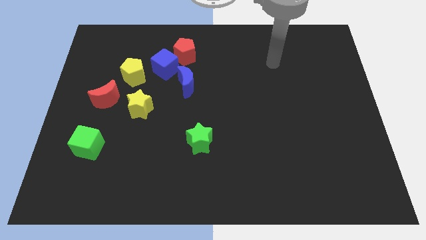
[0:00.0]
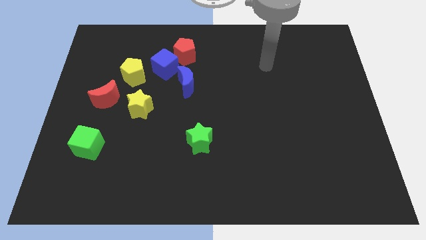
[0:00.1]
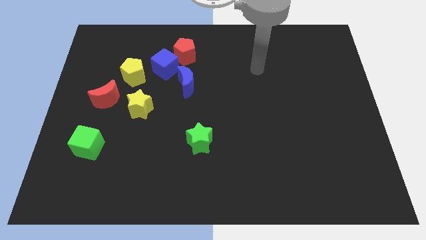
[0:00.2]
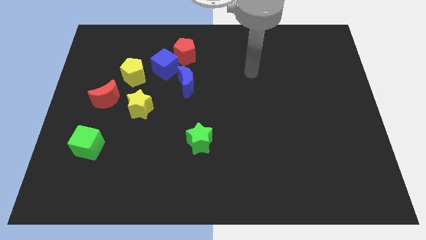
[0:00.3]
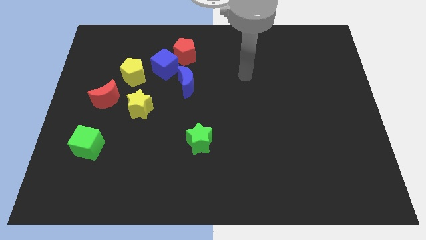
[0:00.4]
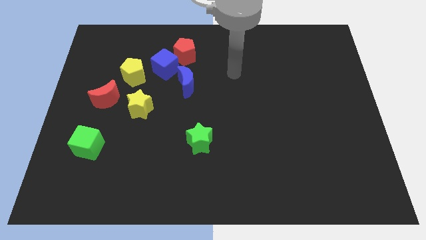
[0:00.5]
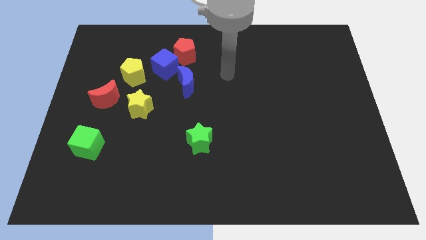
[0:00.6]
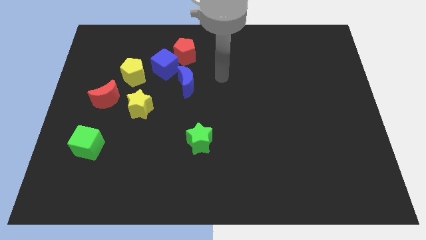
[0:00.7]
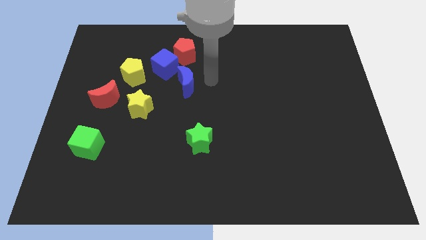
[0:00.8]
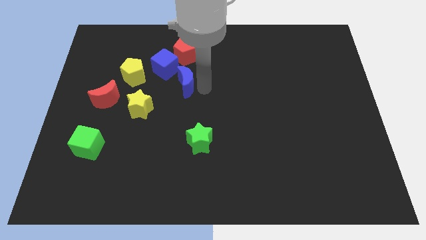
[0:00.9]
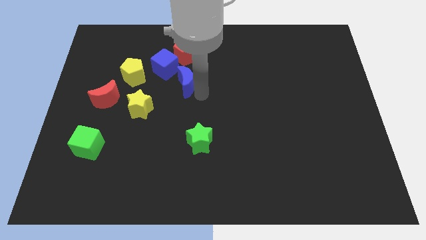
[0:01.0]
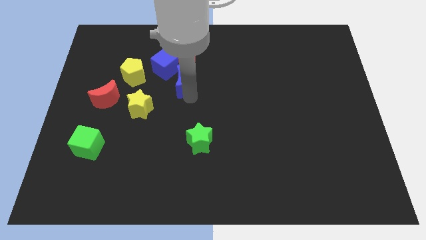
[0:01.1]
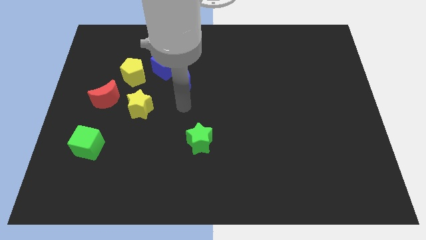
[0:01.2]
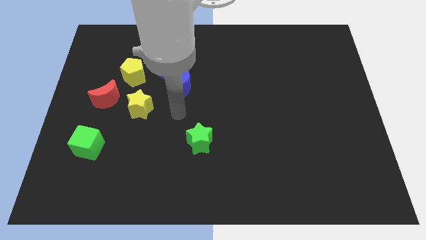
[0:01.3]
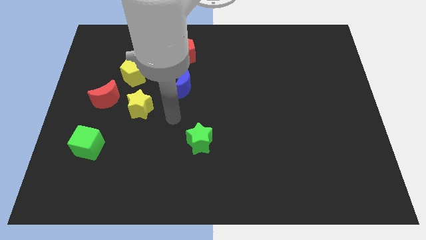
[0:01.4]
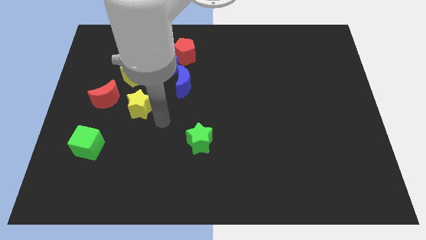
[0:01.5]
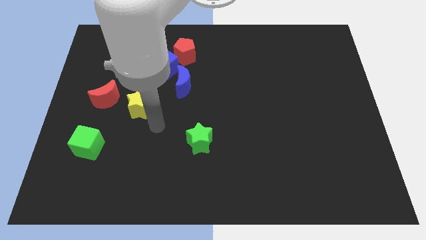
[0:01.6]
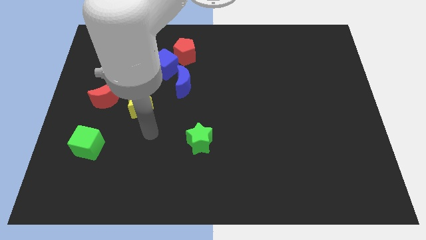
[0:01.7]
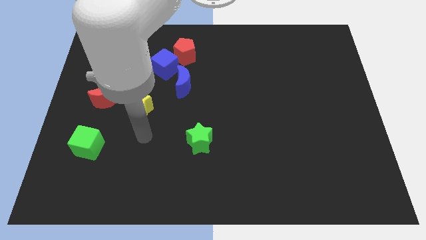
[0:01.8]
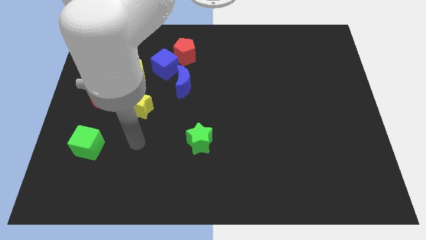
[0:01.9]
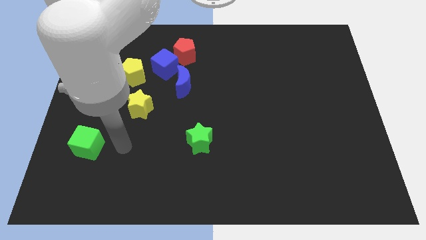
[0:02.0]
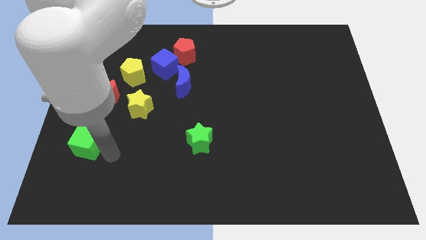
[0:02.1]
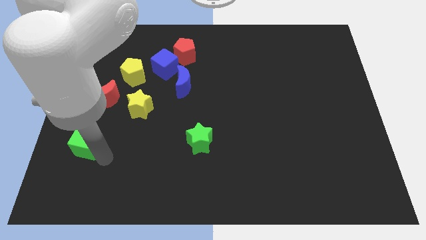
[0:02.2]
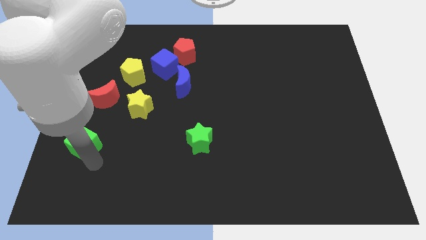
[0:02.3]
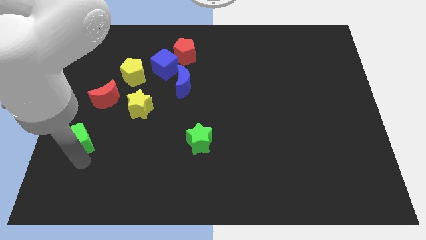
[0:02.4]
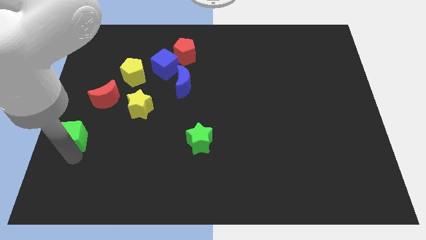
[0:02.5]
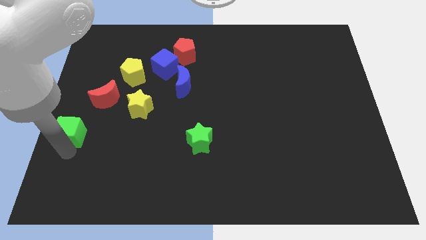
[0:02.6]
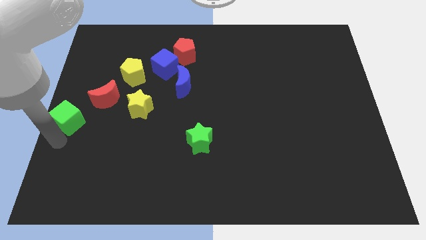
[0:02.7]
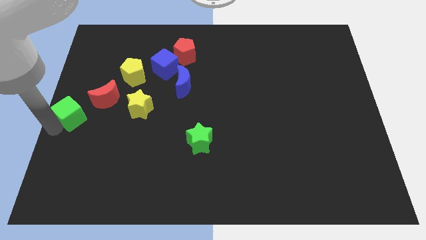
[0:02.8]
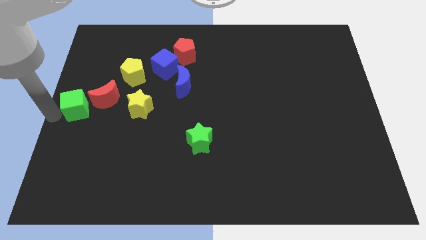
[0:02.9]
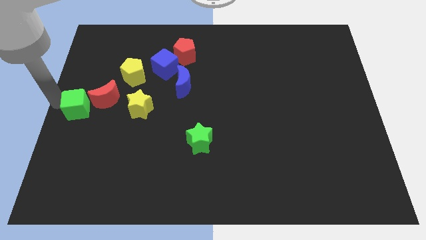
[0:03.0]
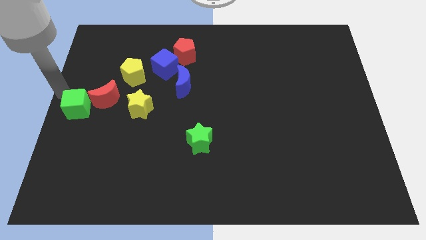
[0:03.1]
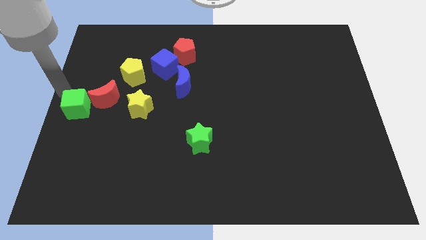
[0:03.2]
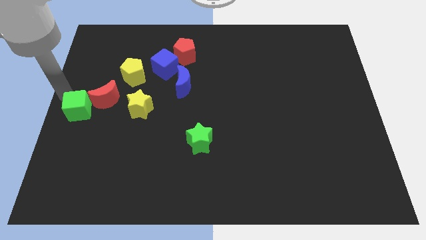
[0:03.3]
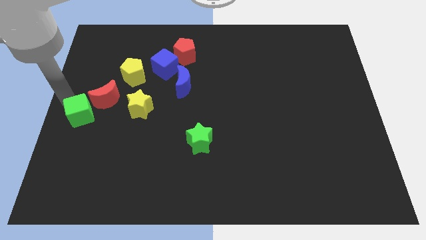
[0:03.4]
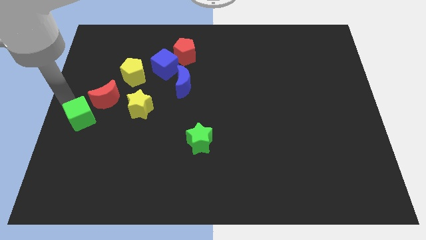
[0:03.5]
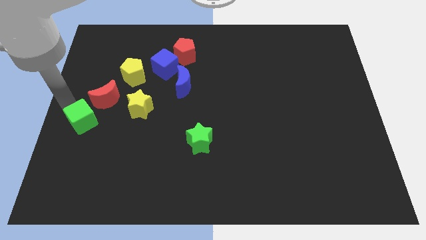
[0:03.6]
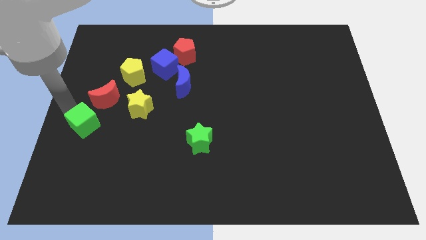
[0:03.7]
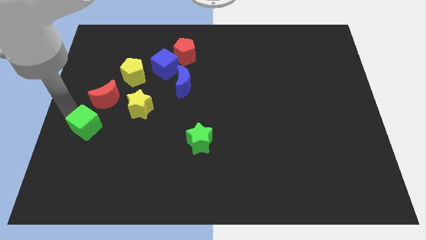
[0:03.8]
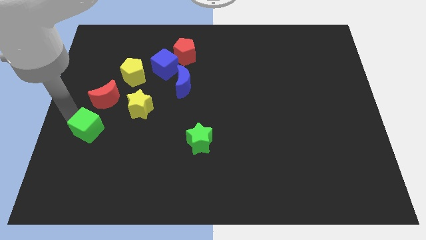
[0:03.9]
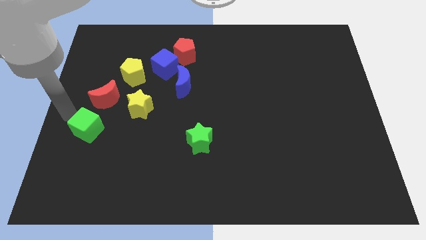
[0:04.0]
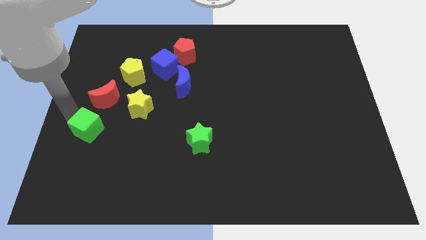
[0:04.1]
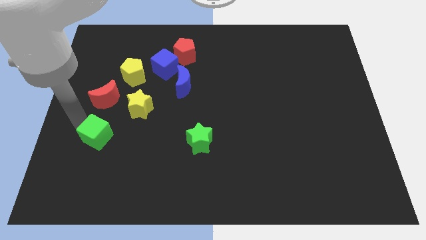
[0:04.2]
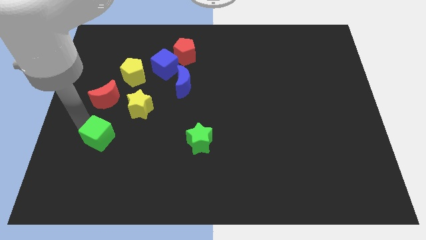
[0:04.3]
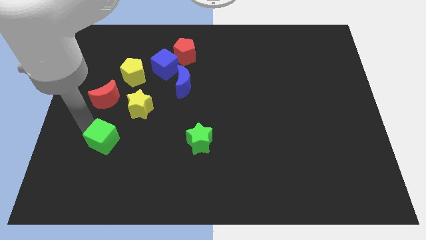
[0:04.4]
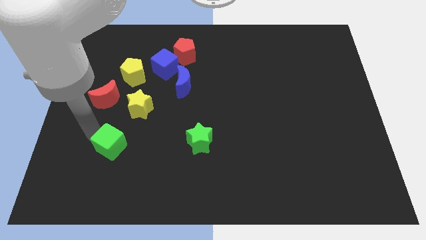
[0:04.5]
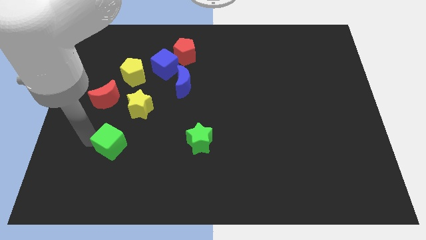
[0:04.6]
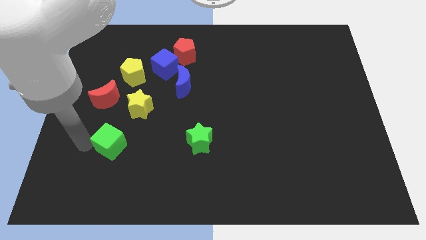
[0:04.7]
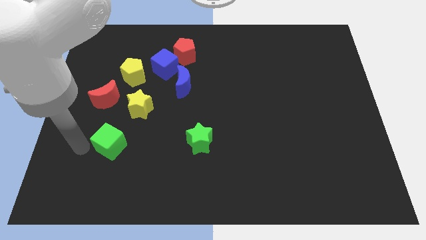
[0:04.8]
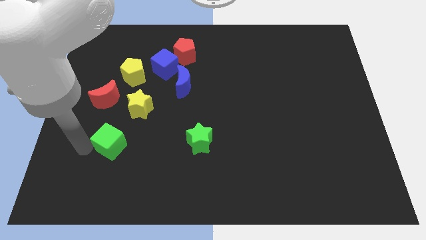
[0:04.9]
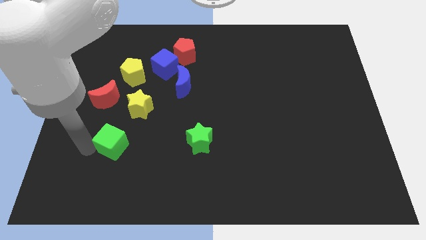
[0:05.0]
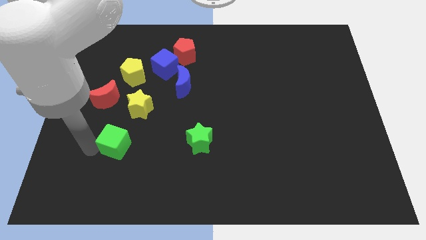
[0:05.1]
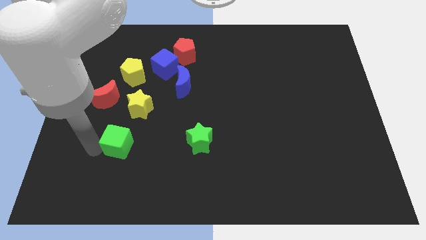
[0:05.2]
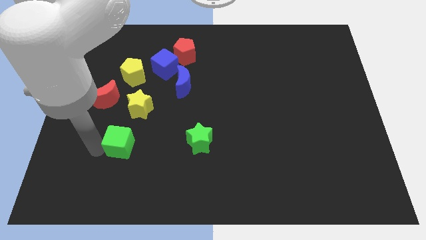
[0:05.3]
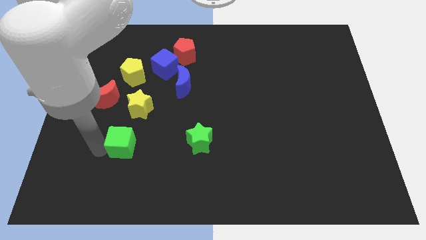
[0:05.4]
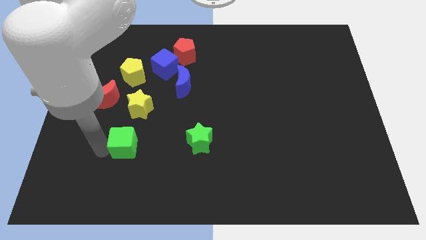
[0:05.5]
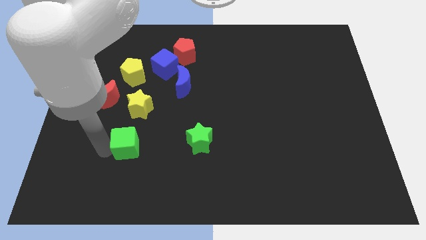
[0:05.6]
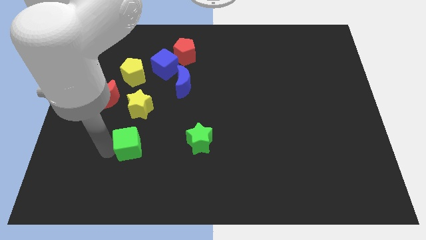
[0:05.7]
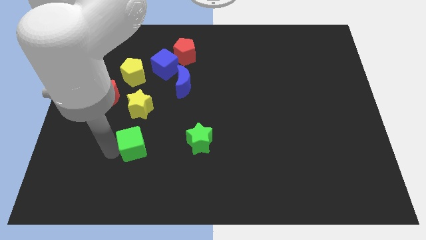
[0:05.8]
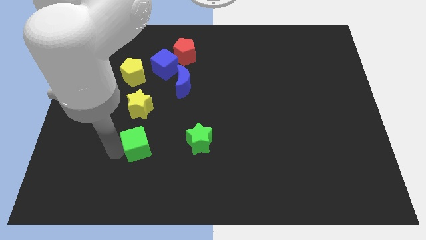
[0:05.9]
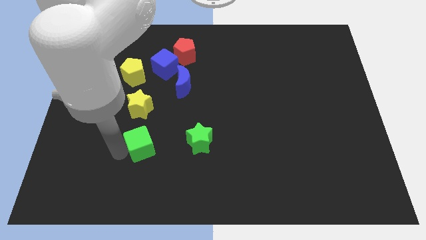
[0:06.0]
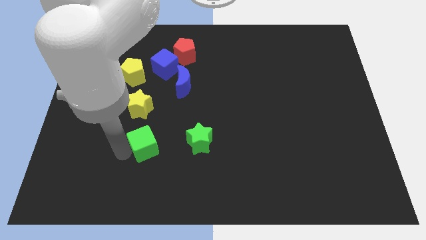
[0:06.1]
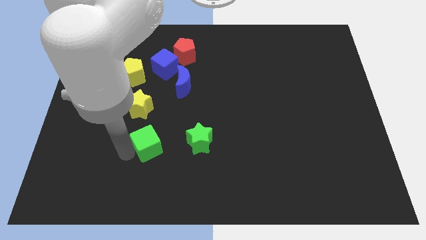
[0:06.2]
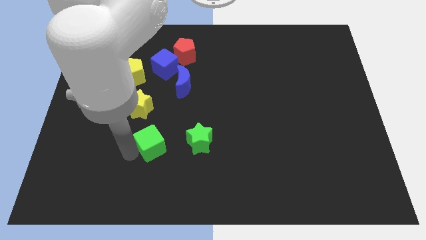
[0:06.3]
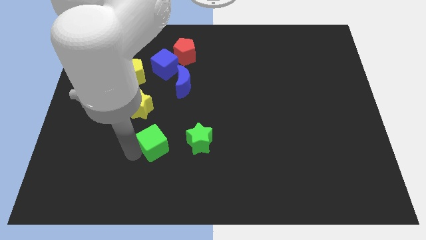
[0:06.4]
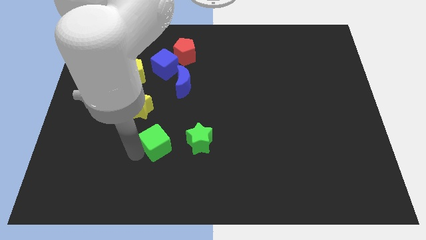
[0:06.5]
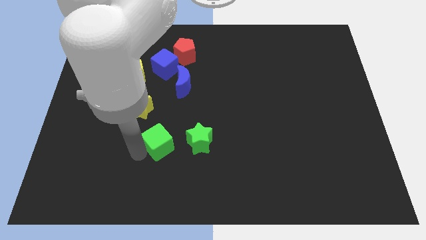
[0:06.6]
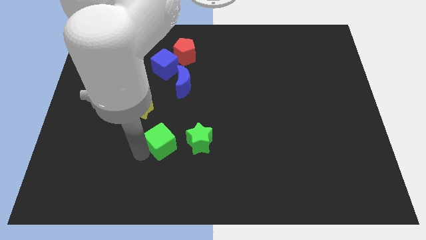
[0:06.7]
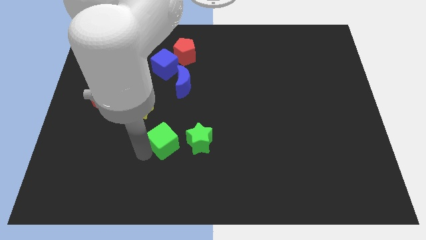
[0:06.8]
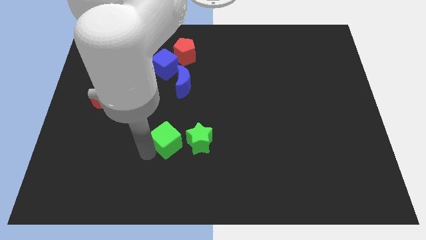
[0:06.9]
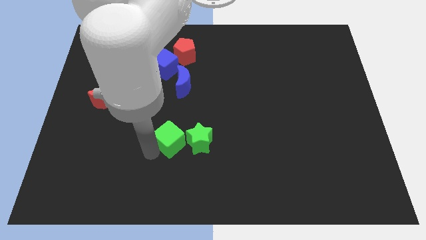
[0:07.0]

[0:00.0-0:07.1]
put the green cube to the top left of the green star
